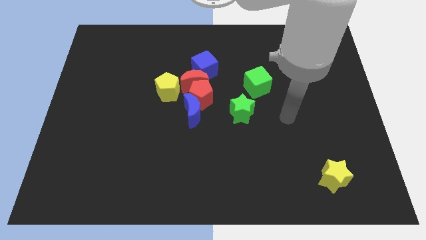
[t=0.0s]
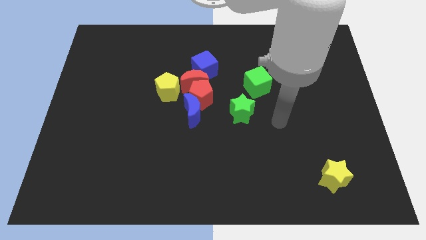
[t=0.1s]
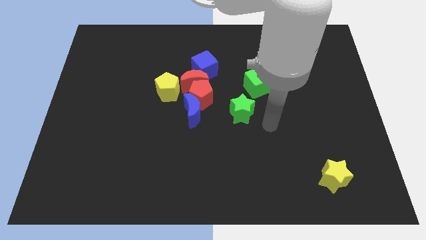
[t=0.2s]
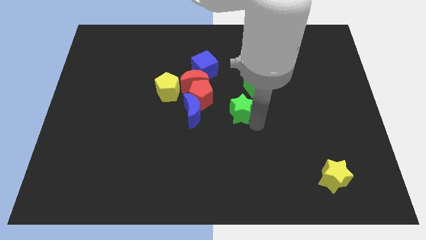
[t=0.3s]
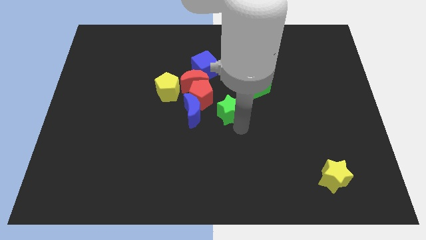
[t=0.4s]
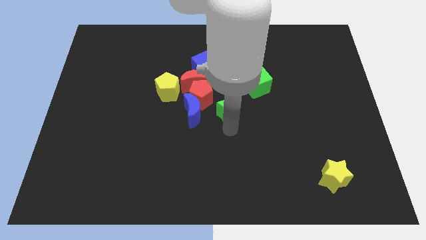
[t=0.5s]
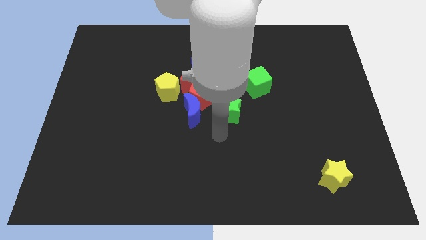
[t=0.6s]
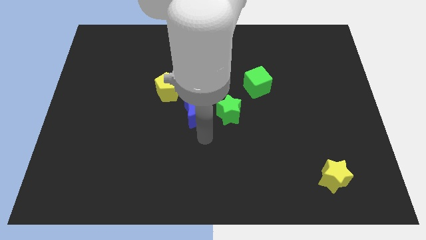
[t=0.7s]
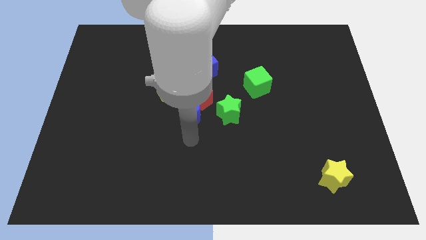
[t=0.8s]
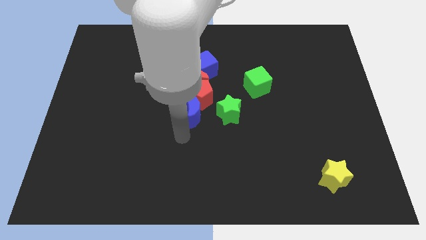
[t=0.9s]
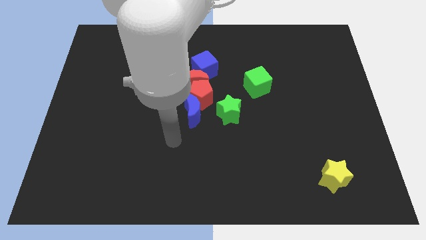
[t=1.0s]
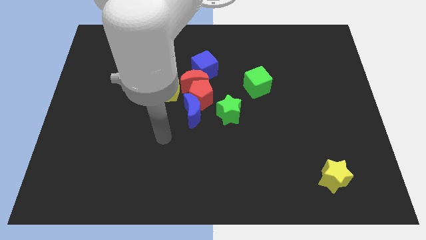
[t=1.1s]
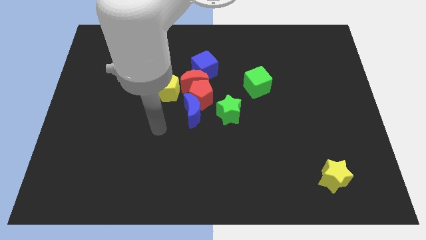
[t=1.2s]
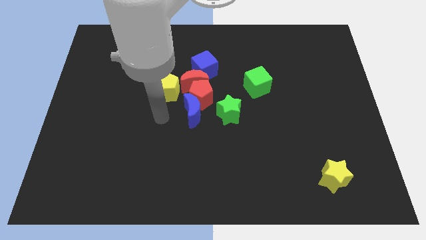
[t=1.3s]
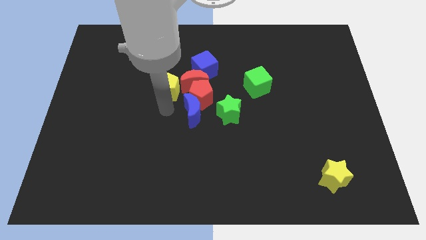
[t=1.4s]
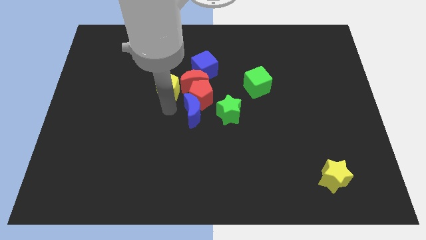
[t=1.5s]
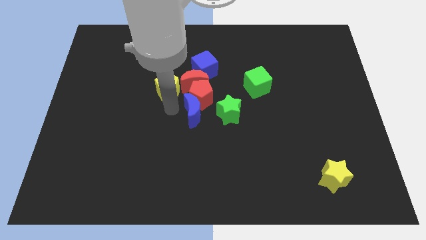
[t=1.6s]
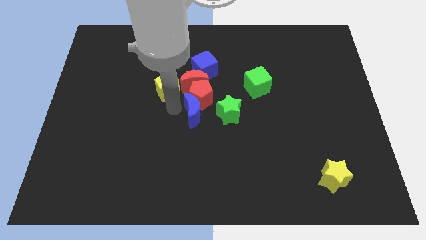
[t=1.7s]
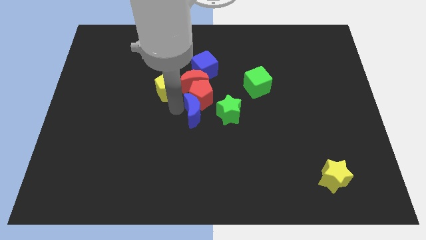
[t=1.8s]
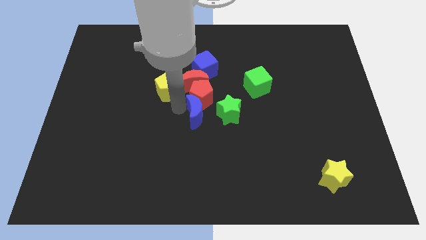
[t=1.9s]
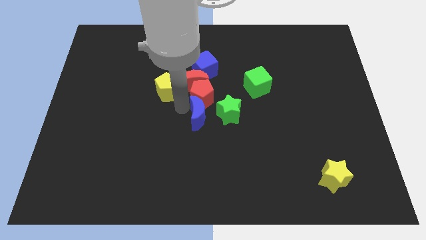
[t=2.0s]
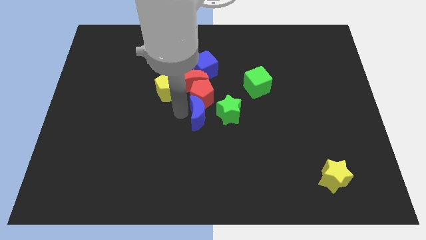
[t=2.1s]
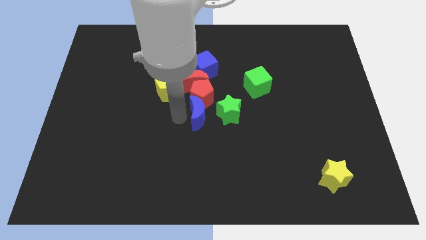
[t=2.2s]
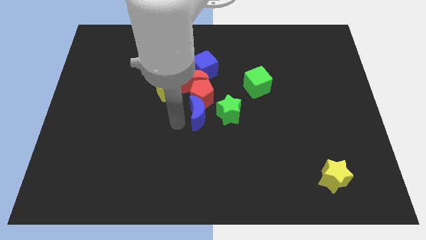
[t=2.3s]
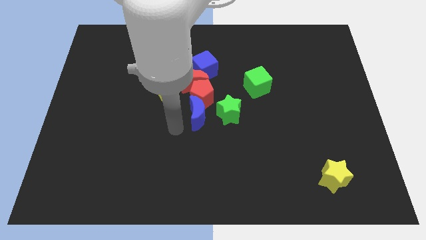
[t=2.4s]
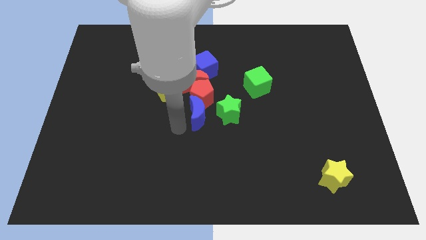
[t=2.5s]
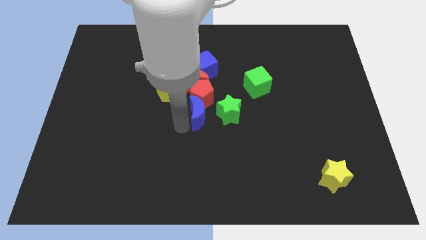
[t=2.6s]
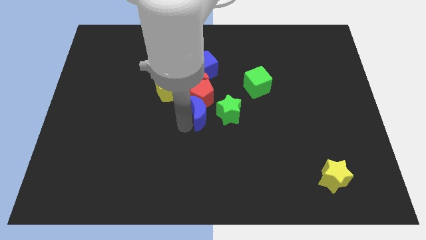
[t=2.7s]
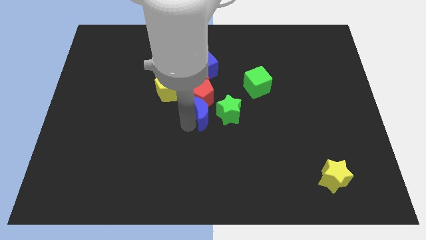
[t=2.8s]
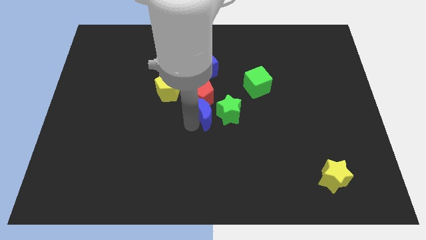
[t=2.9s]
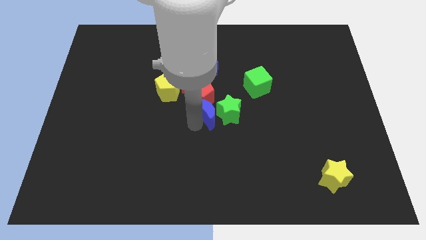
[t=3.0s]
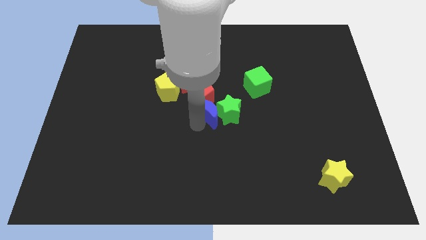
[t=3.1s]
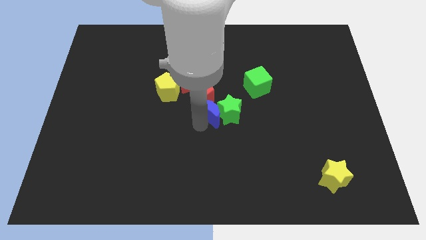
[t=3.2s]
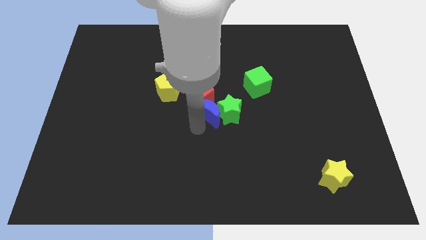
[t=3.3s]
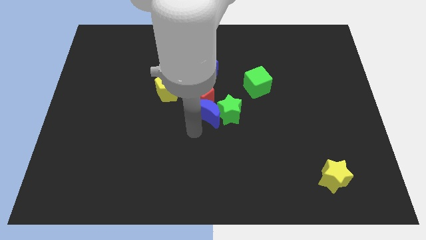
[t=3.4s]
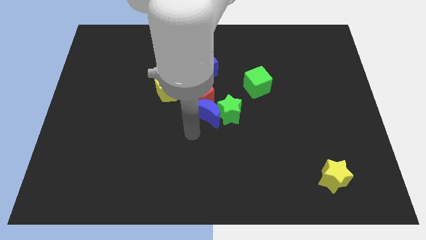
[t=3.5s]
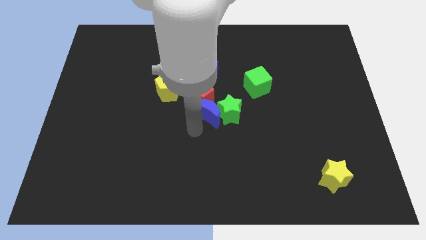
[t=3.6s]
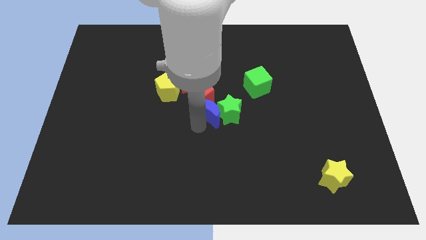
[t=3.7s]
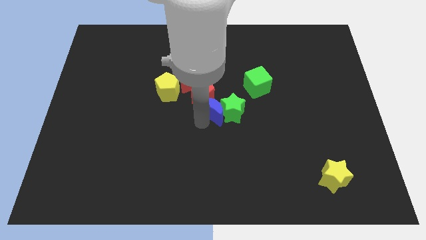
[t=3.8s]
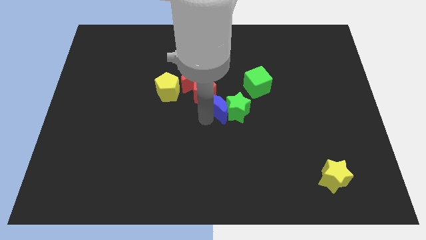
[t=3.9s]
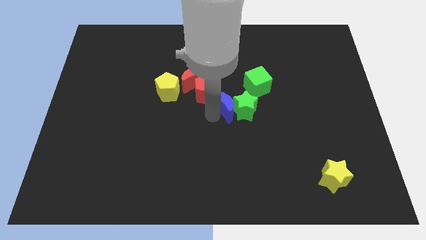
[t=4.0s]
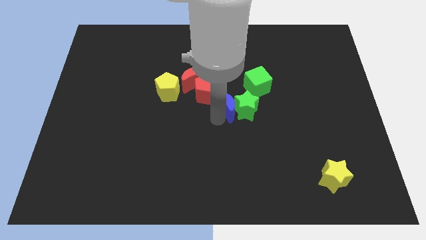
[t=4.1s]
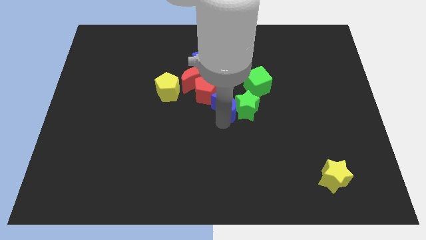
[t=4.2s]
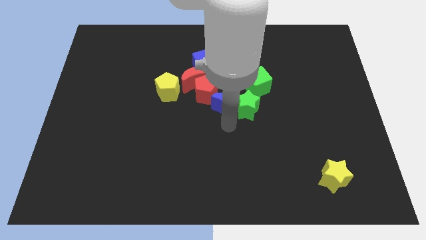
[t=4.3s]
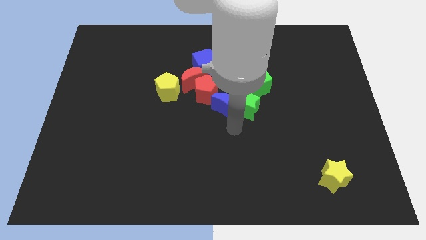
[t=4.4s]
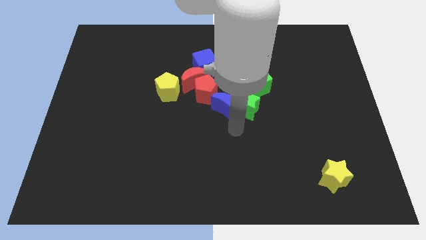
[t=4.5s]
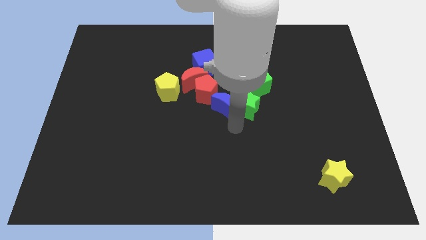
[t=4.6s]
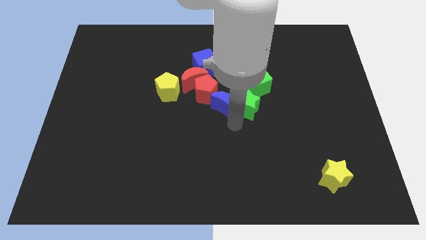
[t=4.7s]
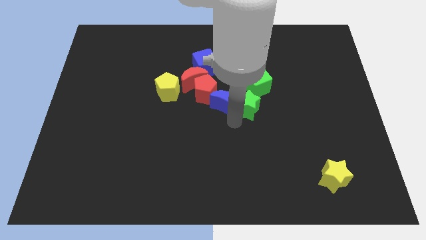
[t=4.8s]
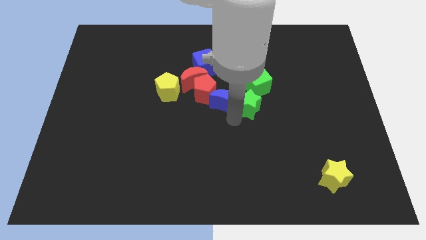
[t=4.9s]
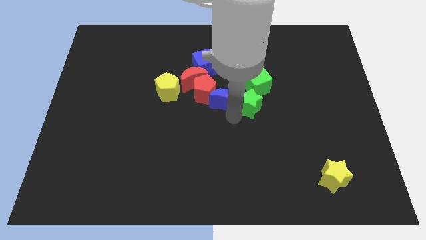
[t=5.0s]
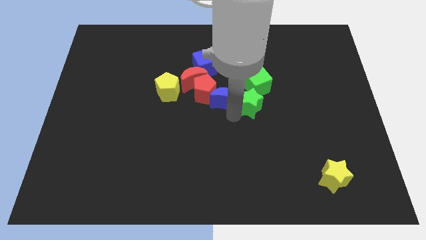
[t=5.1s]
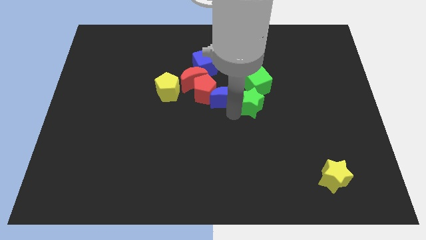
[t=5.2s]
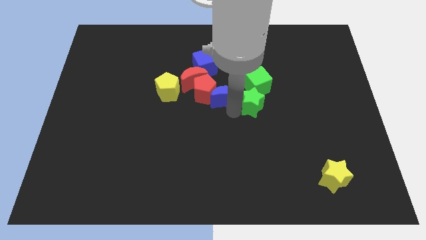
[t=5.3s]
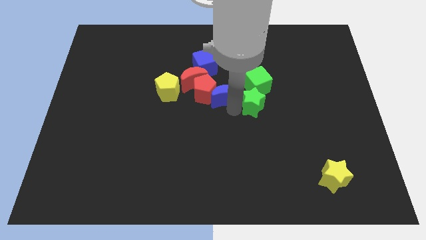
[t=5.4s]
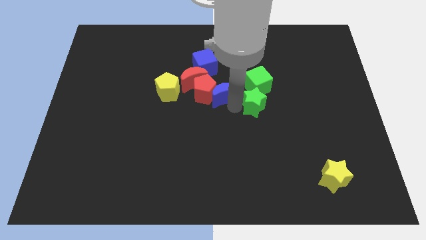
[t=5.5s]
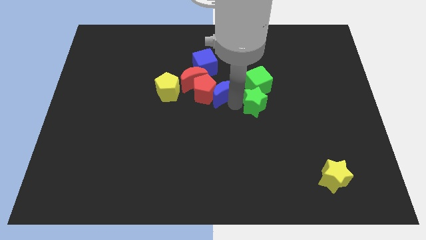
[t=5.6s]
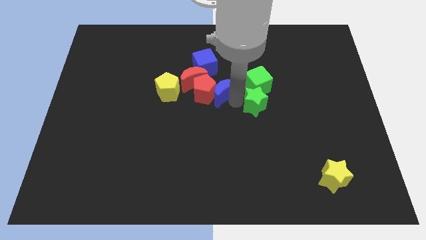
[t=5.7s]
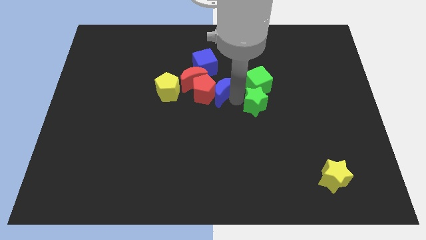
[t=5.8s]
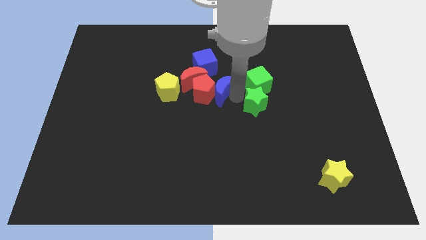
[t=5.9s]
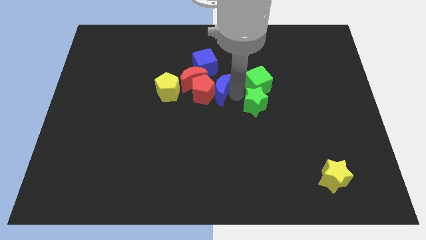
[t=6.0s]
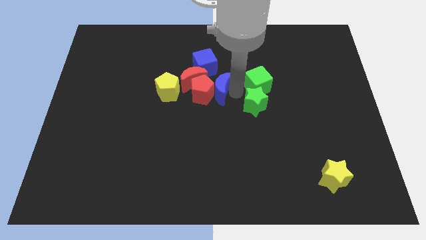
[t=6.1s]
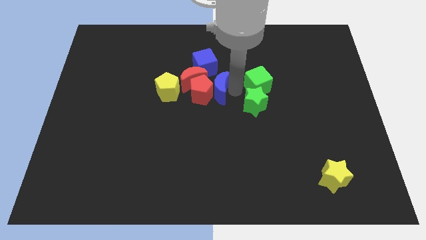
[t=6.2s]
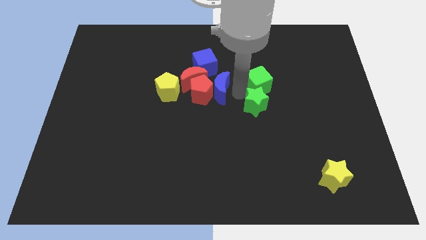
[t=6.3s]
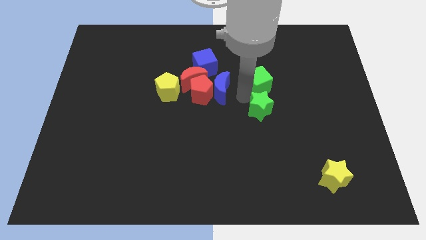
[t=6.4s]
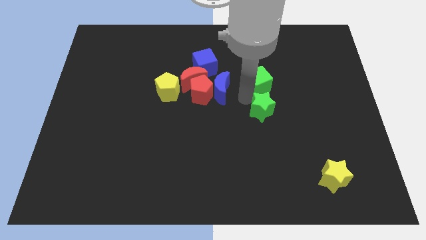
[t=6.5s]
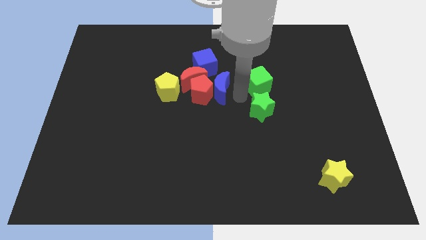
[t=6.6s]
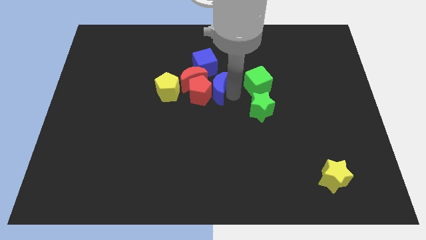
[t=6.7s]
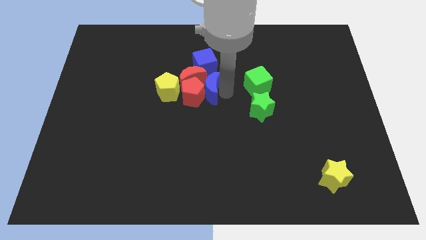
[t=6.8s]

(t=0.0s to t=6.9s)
slide the blue moon next to the red moon

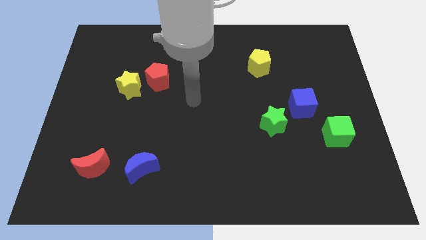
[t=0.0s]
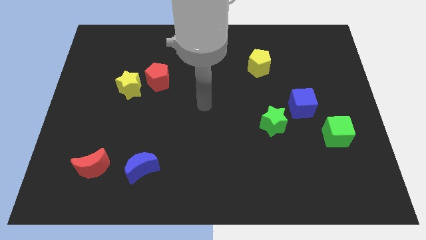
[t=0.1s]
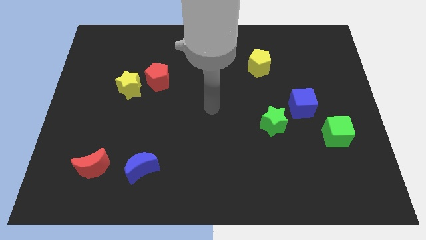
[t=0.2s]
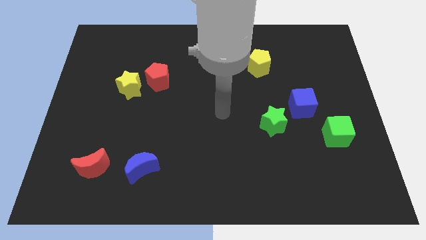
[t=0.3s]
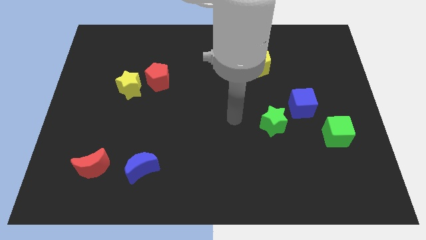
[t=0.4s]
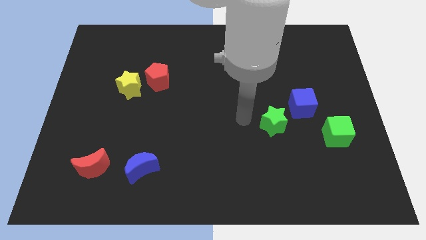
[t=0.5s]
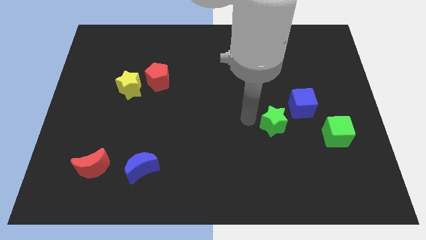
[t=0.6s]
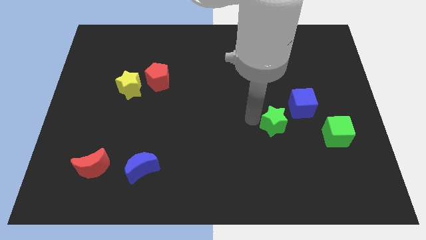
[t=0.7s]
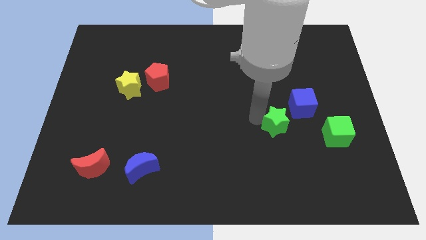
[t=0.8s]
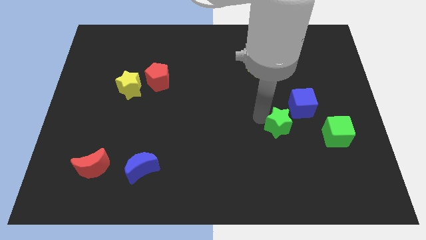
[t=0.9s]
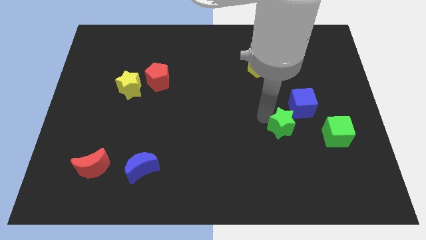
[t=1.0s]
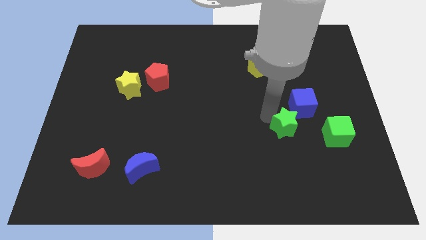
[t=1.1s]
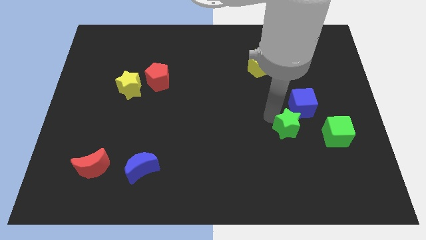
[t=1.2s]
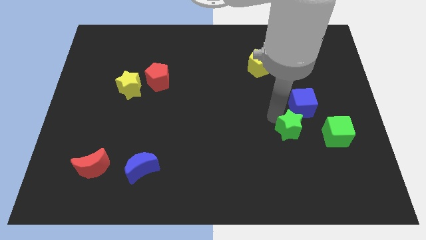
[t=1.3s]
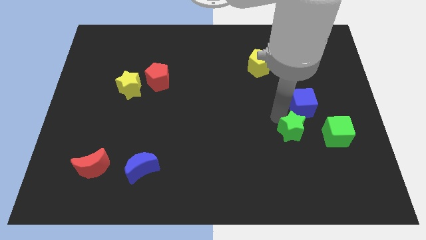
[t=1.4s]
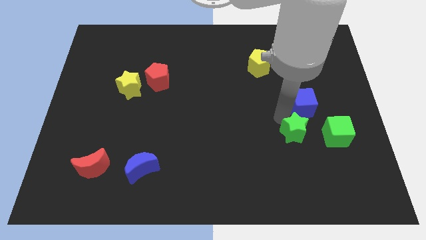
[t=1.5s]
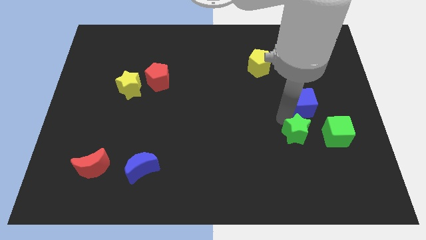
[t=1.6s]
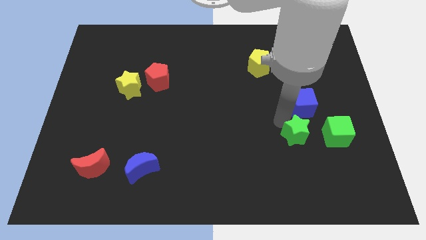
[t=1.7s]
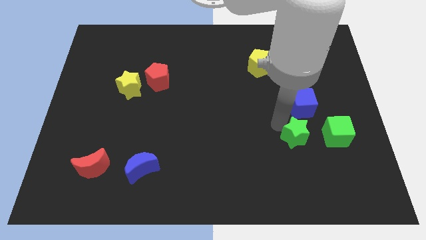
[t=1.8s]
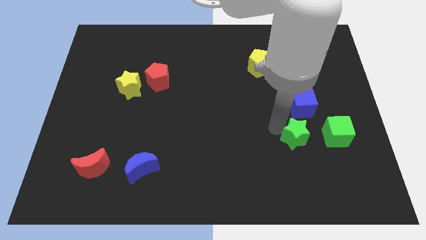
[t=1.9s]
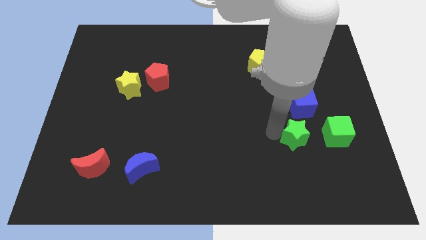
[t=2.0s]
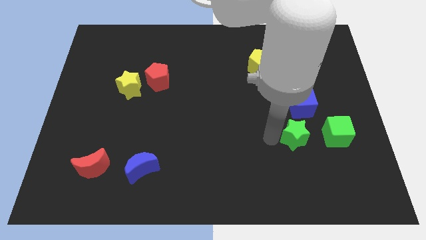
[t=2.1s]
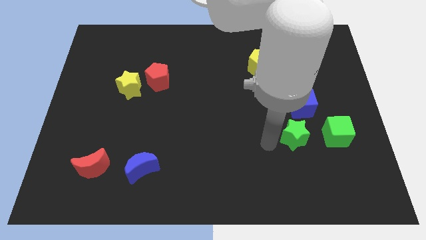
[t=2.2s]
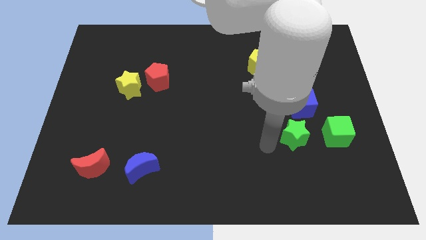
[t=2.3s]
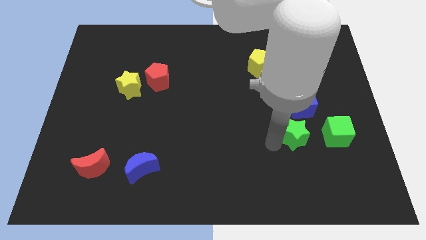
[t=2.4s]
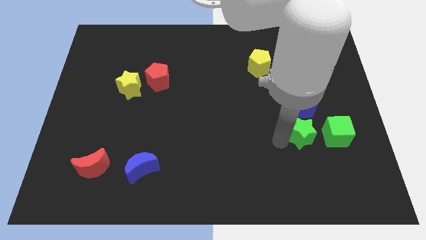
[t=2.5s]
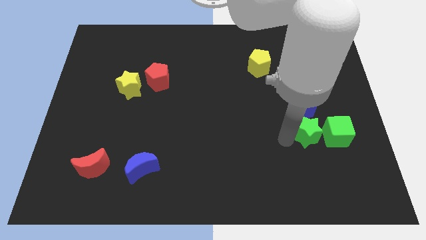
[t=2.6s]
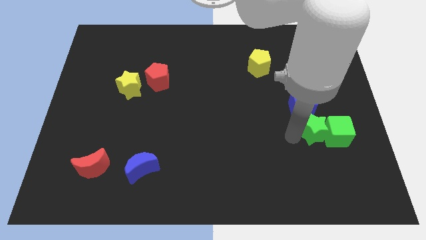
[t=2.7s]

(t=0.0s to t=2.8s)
move the green star towards the green cube
